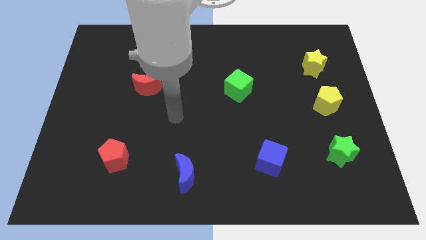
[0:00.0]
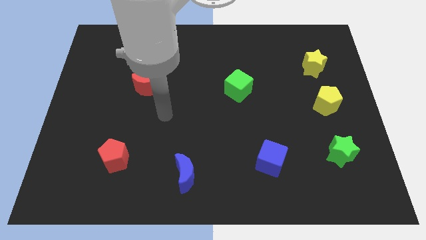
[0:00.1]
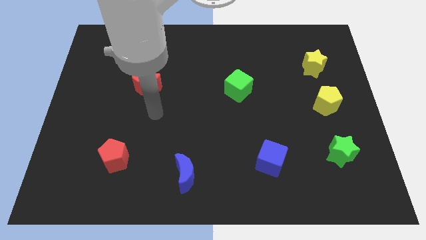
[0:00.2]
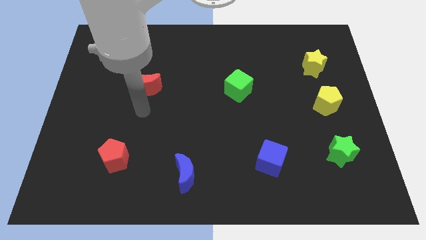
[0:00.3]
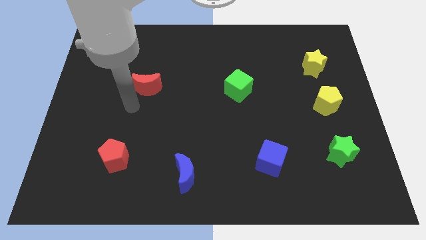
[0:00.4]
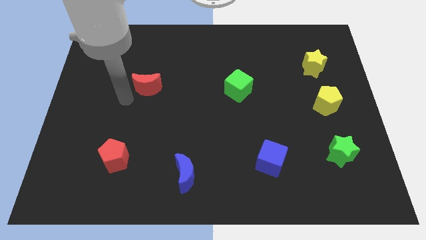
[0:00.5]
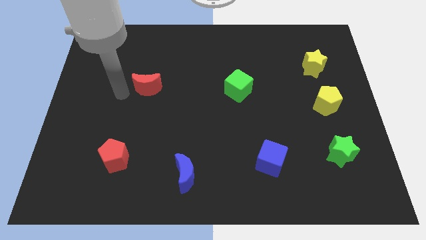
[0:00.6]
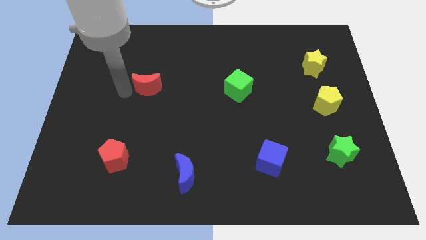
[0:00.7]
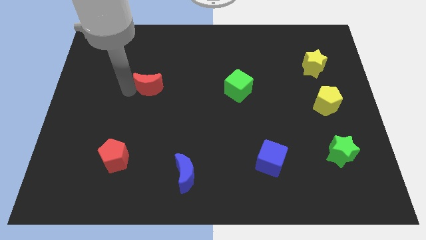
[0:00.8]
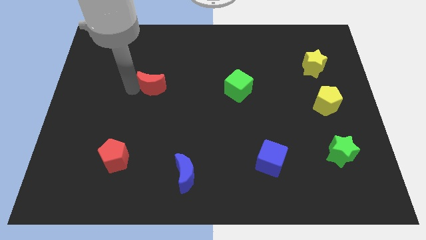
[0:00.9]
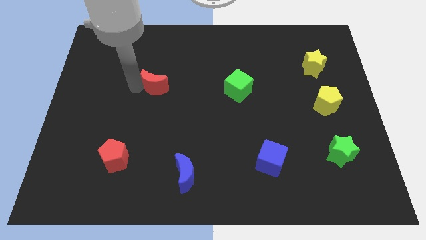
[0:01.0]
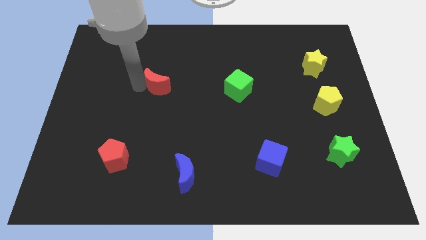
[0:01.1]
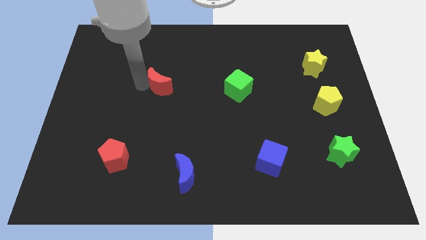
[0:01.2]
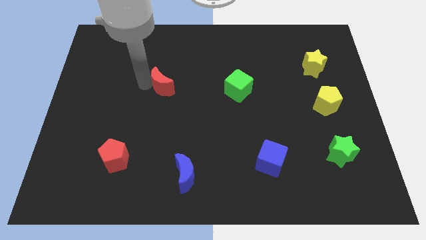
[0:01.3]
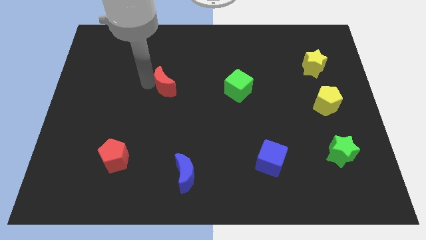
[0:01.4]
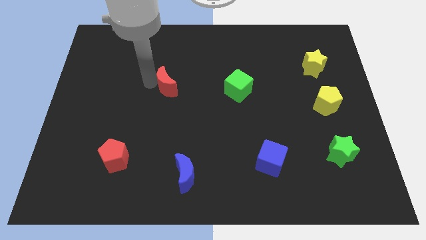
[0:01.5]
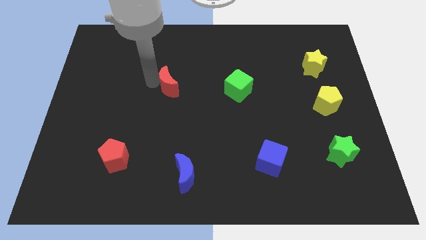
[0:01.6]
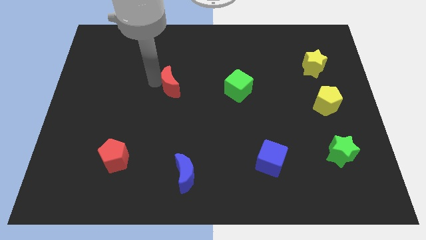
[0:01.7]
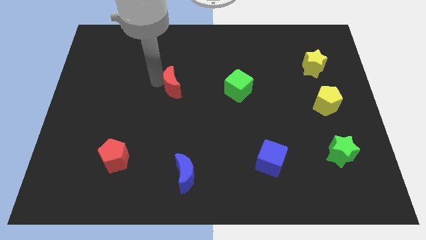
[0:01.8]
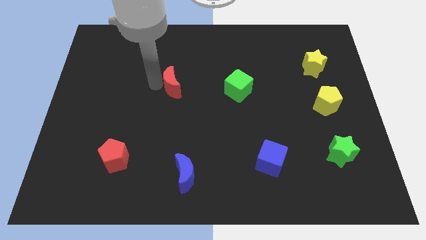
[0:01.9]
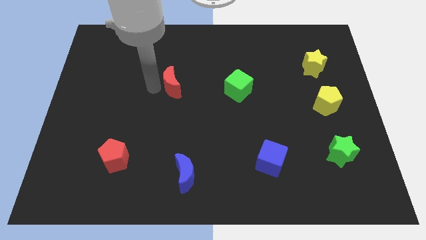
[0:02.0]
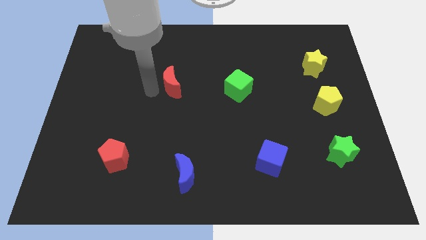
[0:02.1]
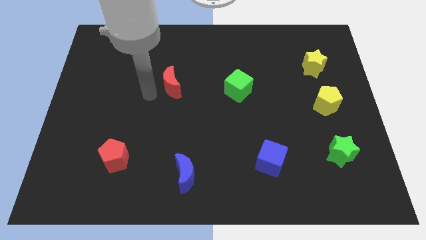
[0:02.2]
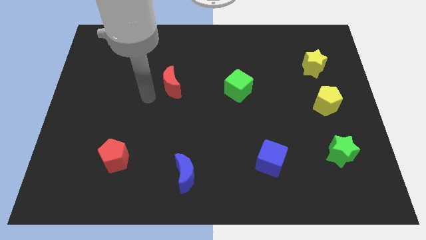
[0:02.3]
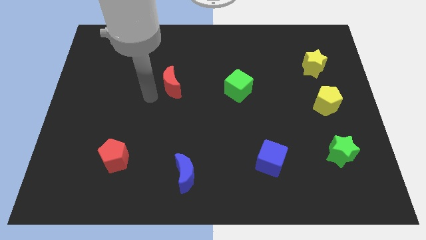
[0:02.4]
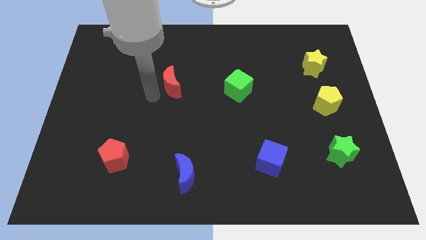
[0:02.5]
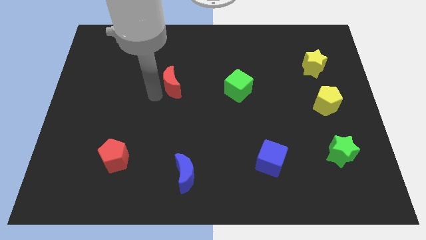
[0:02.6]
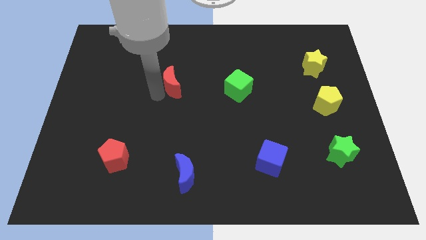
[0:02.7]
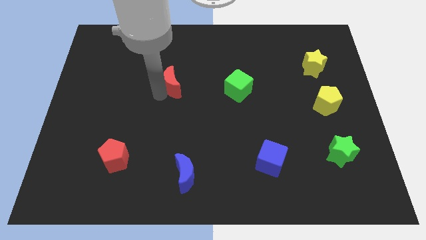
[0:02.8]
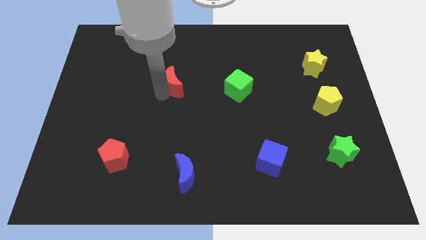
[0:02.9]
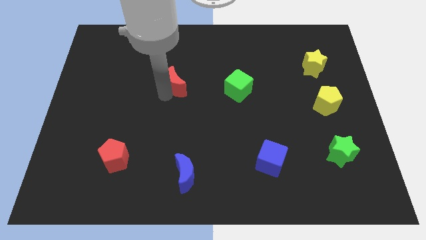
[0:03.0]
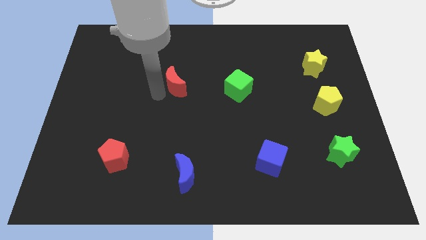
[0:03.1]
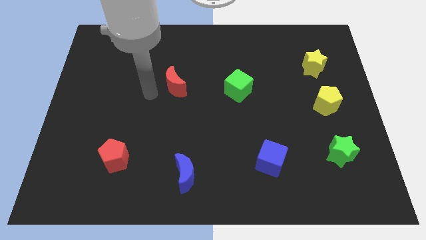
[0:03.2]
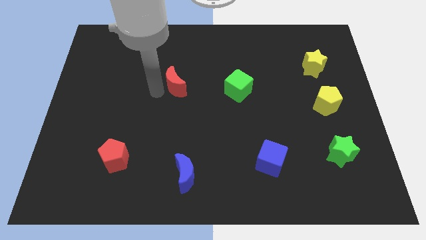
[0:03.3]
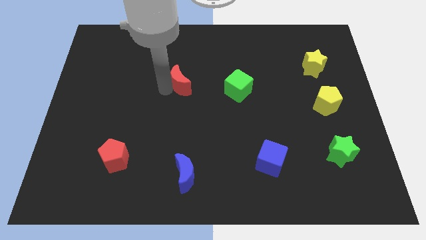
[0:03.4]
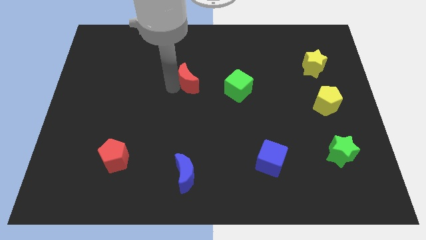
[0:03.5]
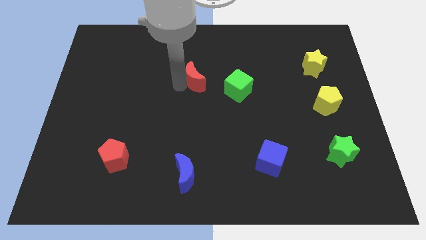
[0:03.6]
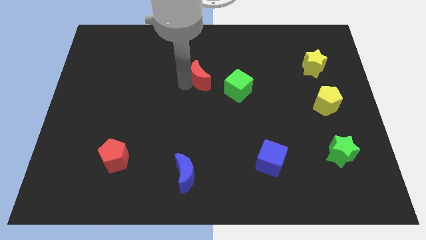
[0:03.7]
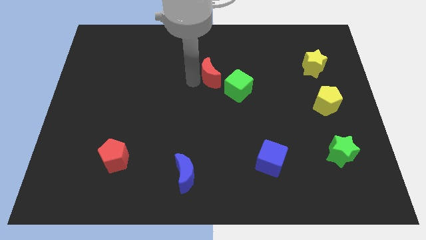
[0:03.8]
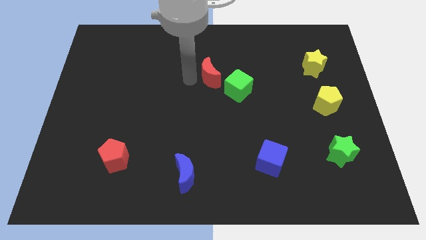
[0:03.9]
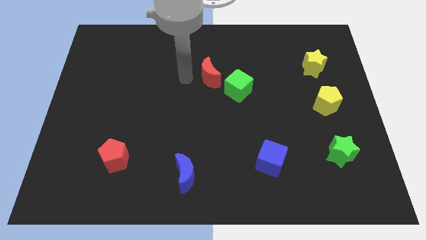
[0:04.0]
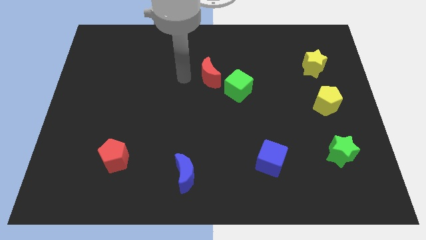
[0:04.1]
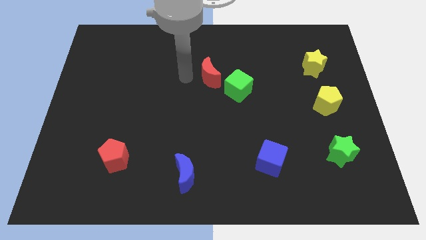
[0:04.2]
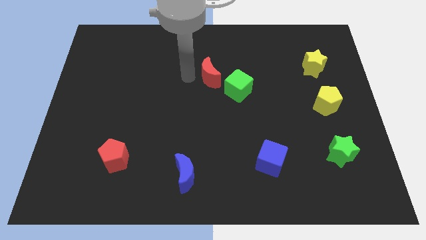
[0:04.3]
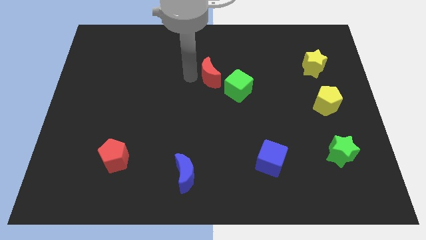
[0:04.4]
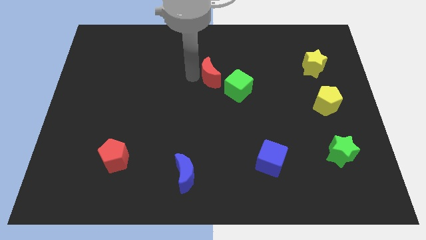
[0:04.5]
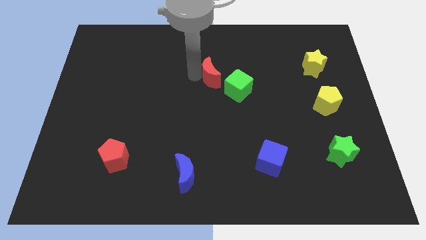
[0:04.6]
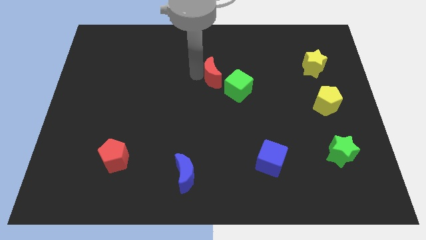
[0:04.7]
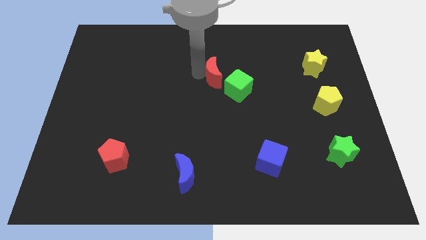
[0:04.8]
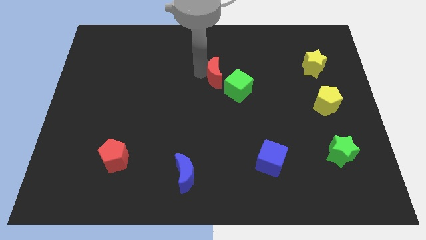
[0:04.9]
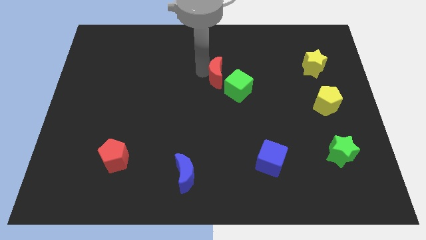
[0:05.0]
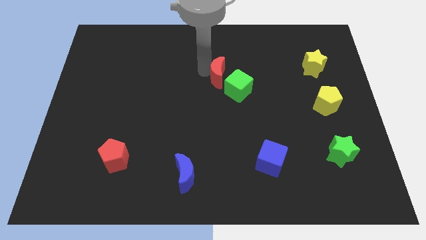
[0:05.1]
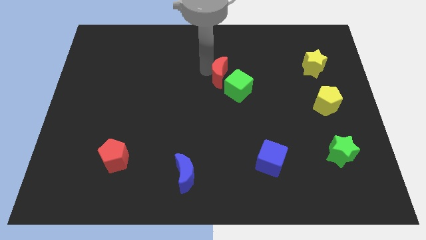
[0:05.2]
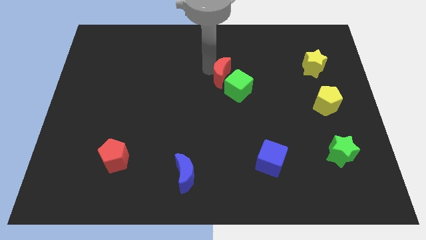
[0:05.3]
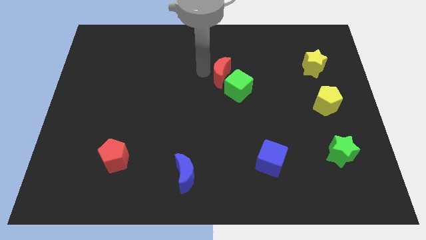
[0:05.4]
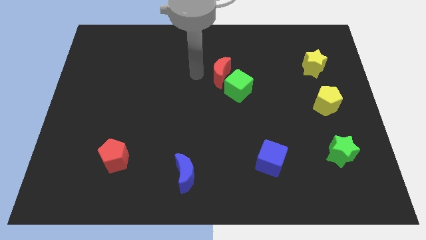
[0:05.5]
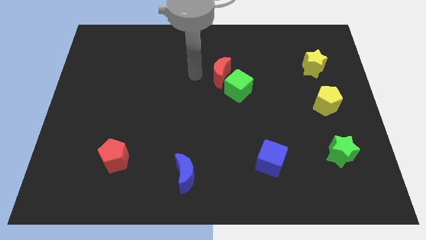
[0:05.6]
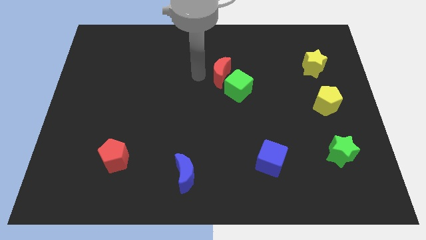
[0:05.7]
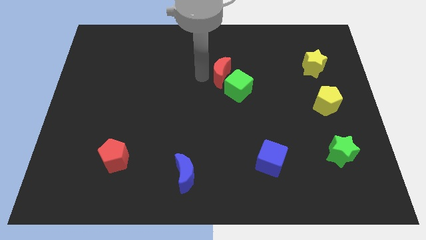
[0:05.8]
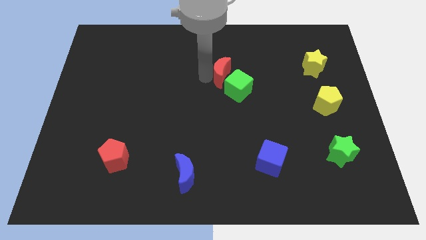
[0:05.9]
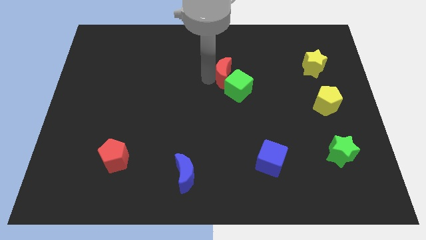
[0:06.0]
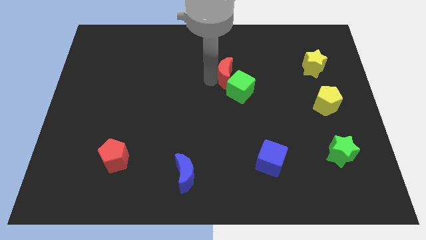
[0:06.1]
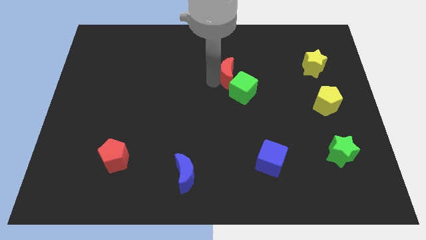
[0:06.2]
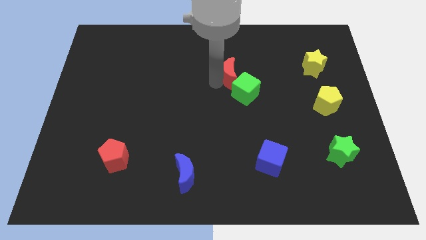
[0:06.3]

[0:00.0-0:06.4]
push the red moon to the right

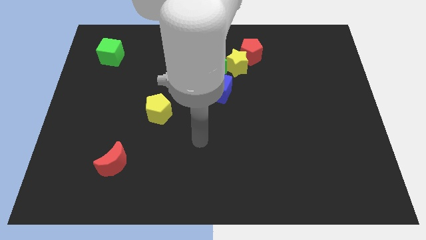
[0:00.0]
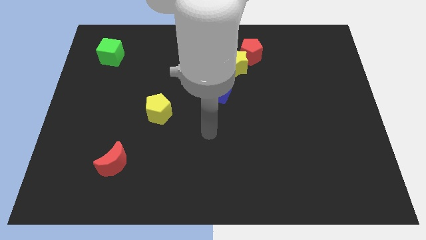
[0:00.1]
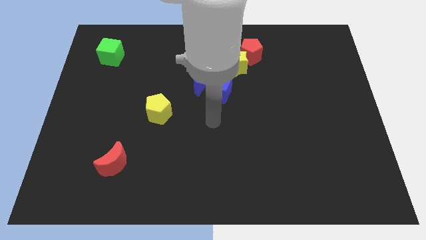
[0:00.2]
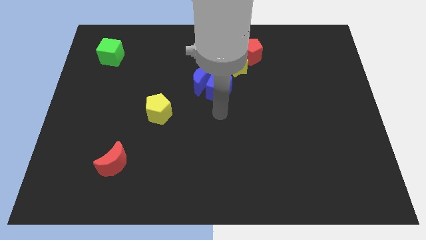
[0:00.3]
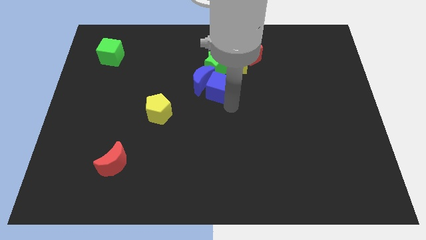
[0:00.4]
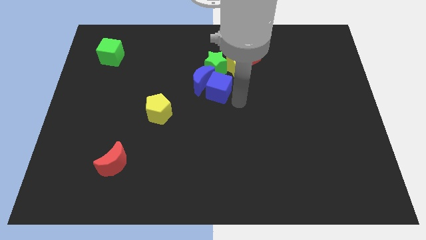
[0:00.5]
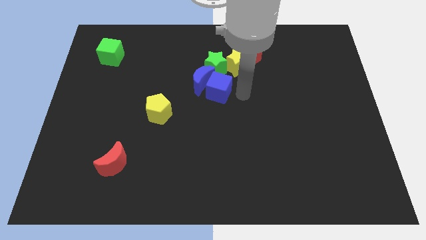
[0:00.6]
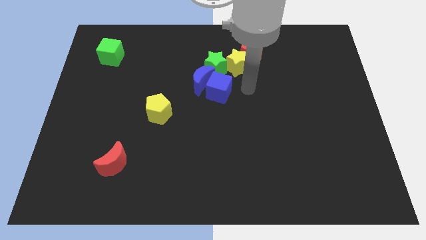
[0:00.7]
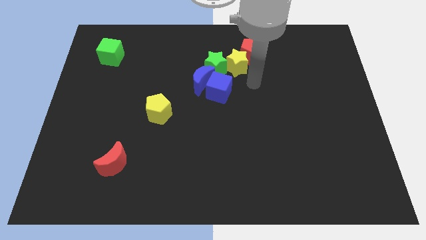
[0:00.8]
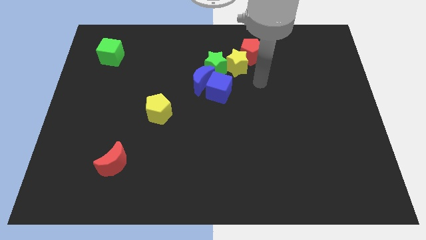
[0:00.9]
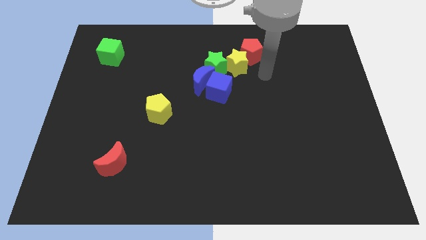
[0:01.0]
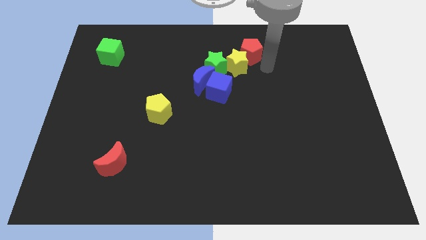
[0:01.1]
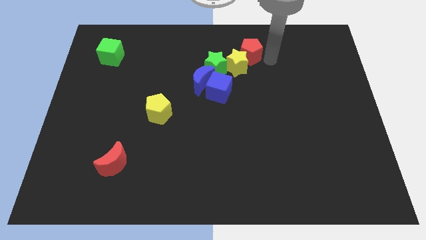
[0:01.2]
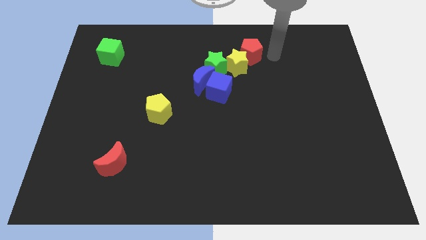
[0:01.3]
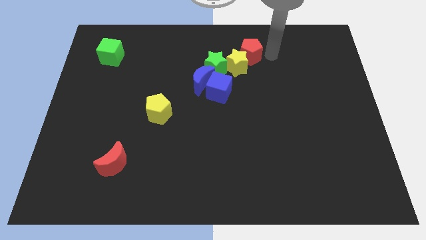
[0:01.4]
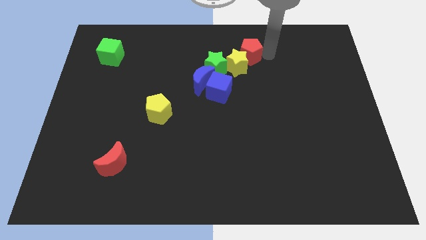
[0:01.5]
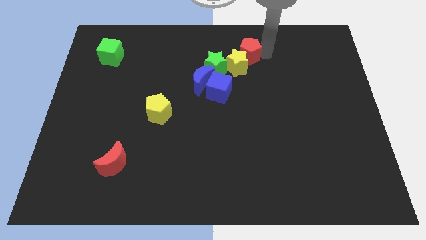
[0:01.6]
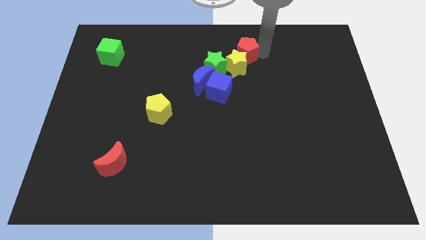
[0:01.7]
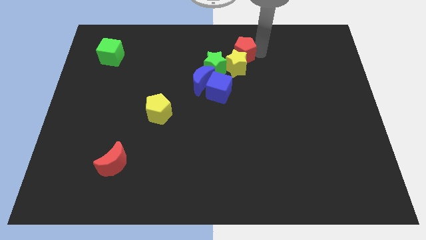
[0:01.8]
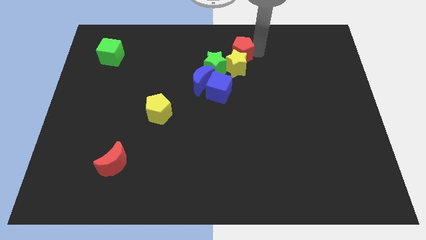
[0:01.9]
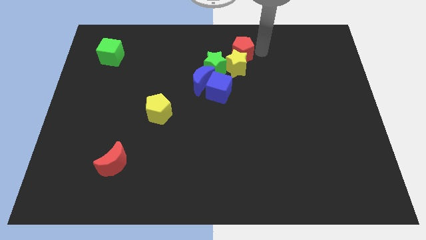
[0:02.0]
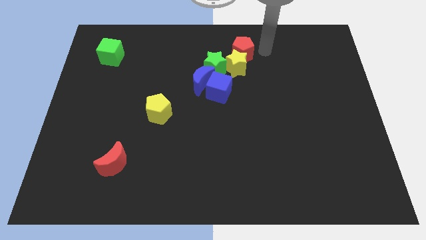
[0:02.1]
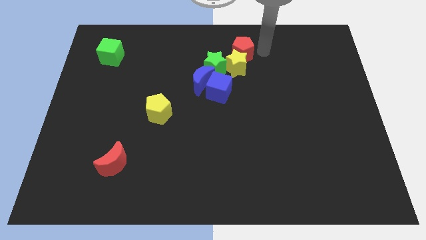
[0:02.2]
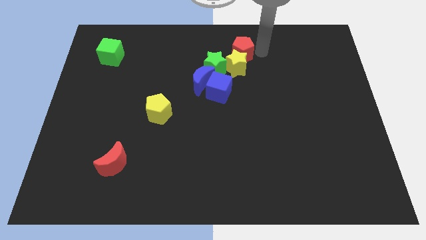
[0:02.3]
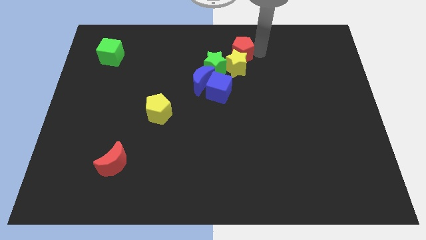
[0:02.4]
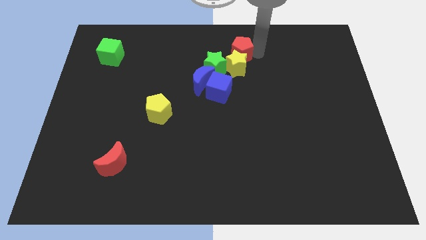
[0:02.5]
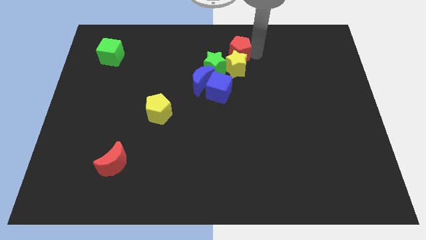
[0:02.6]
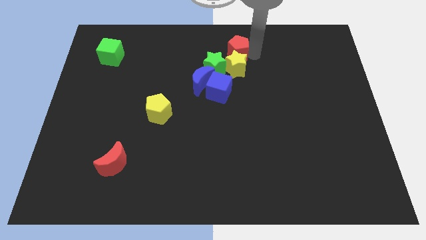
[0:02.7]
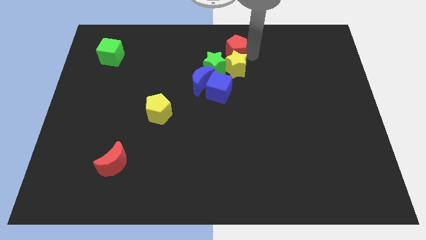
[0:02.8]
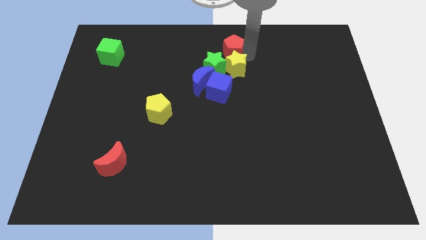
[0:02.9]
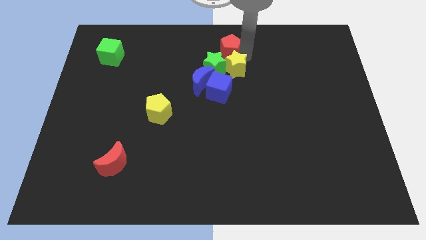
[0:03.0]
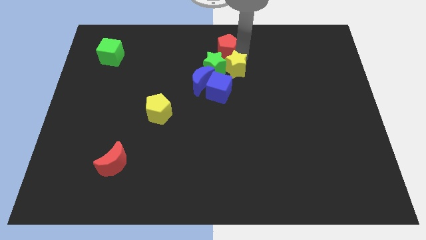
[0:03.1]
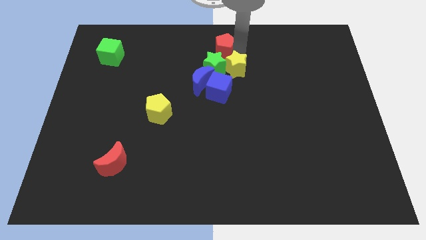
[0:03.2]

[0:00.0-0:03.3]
slide the red pentagon left slightly
